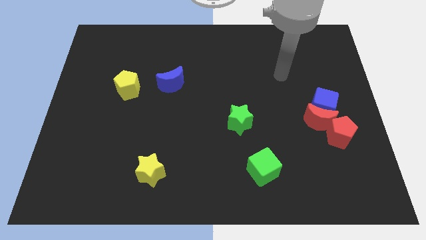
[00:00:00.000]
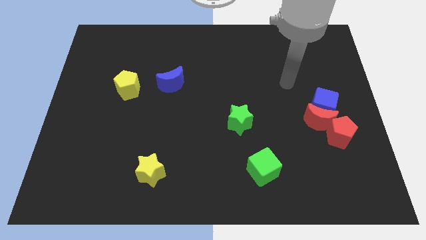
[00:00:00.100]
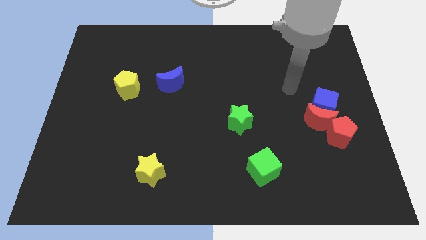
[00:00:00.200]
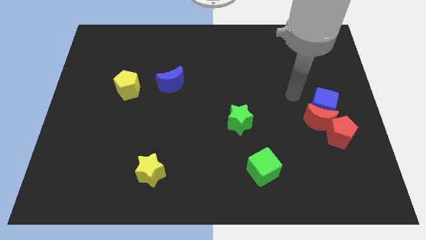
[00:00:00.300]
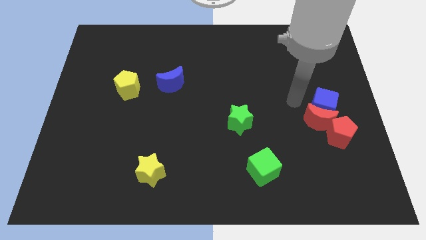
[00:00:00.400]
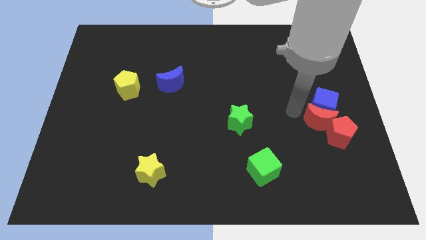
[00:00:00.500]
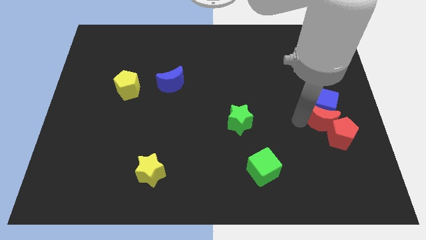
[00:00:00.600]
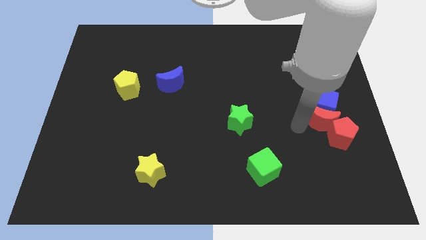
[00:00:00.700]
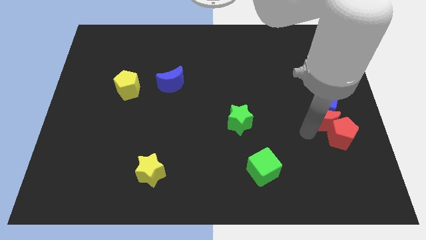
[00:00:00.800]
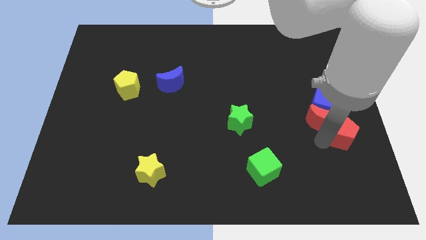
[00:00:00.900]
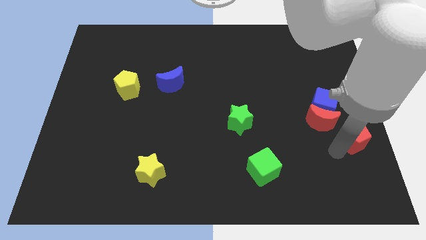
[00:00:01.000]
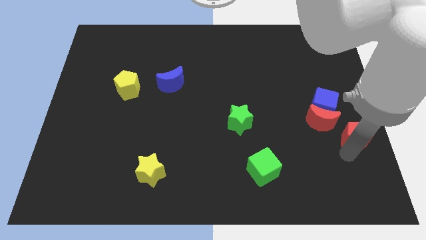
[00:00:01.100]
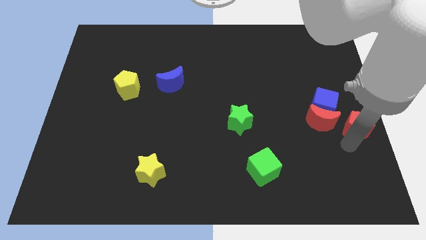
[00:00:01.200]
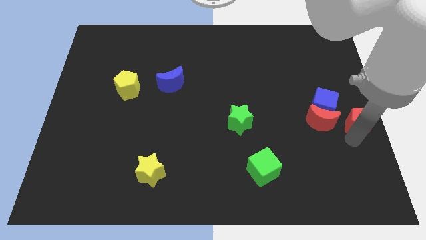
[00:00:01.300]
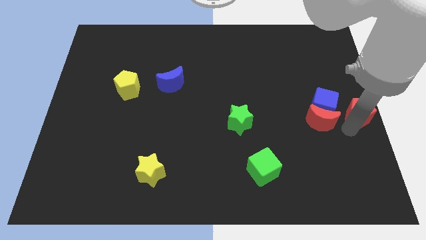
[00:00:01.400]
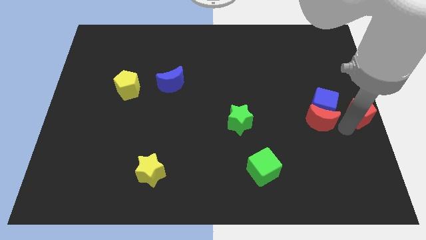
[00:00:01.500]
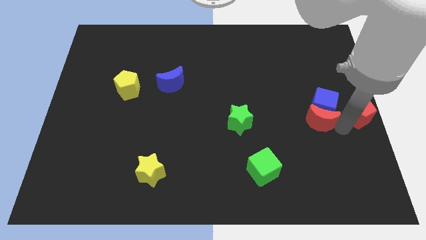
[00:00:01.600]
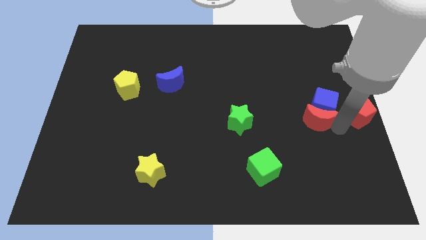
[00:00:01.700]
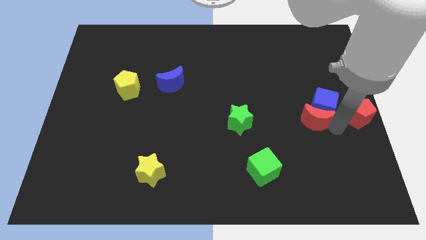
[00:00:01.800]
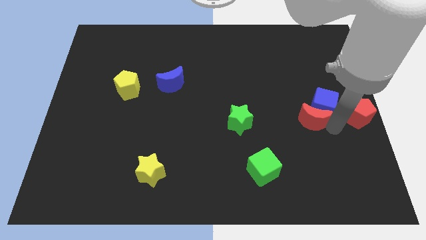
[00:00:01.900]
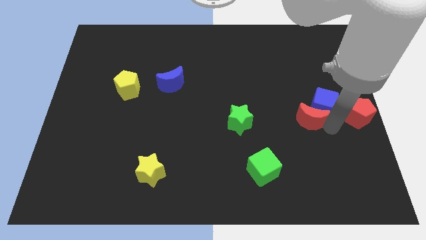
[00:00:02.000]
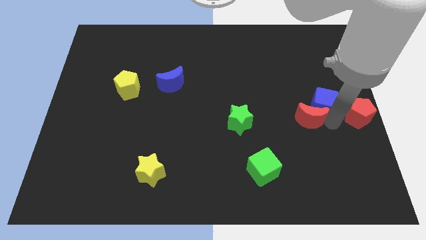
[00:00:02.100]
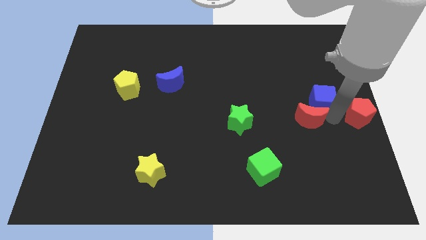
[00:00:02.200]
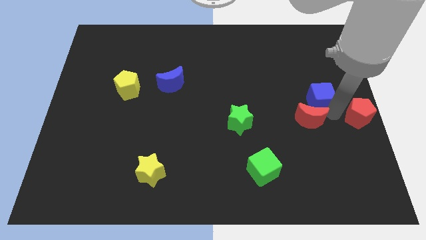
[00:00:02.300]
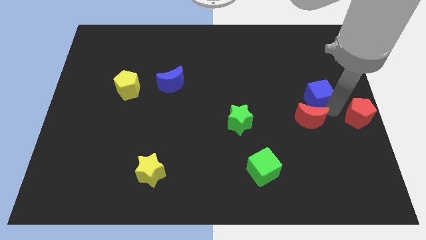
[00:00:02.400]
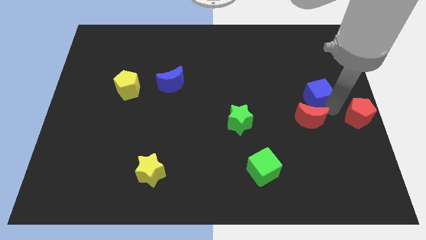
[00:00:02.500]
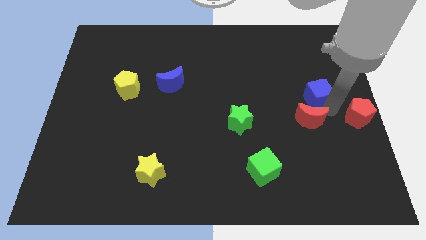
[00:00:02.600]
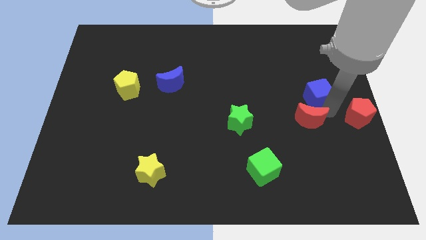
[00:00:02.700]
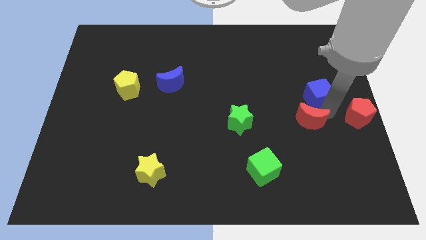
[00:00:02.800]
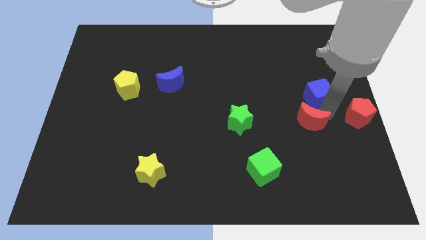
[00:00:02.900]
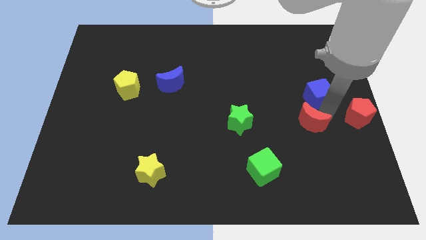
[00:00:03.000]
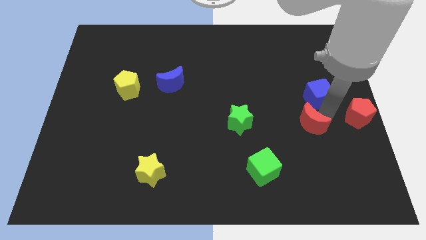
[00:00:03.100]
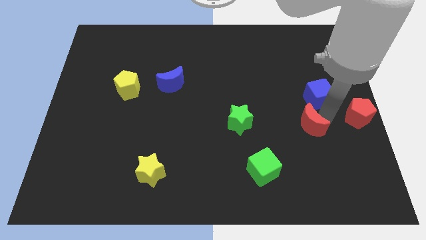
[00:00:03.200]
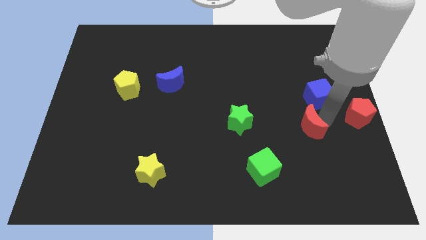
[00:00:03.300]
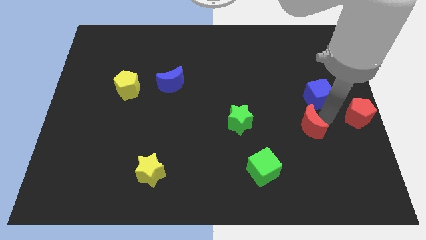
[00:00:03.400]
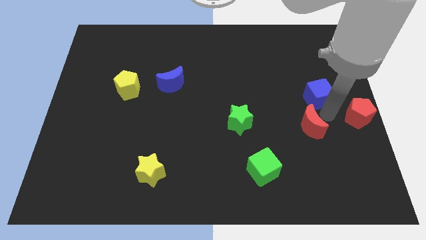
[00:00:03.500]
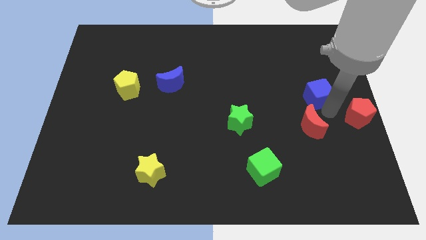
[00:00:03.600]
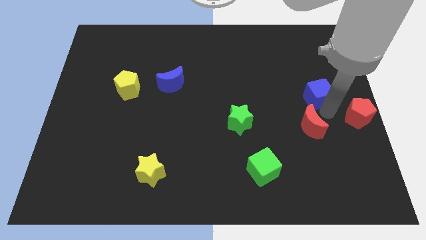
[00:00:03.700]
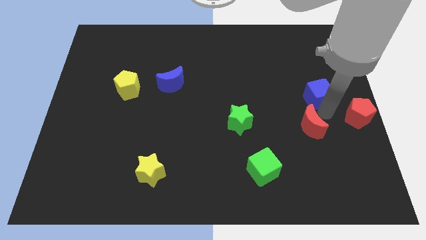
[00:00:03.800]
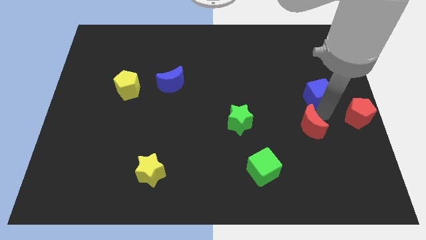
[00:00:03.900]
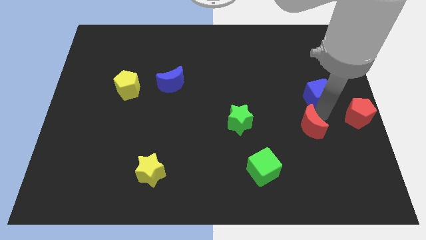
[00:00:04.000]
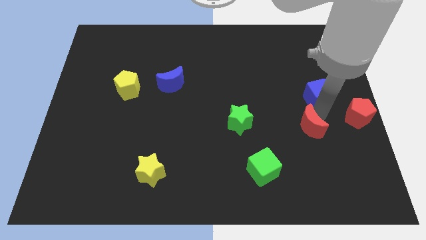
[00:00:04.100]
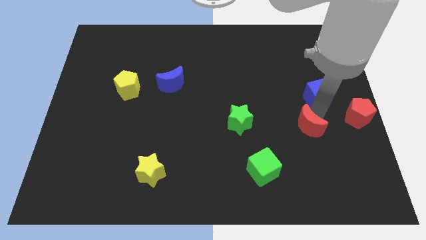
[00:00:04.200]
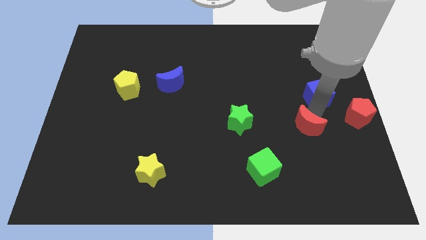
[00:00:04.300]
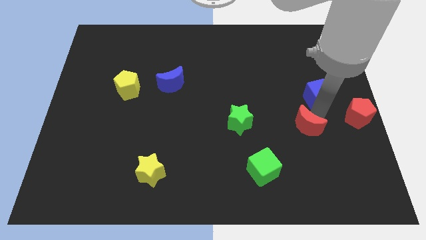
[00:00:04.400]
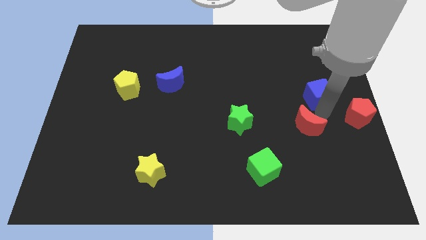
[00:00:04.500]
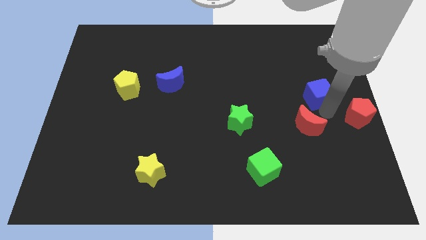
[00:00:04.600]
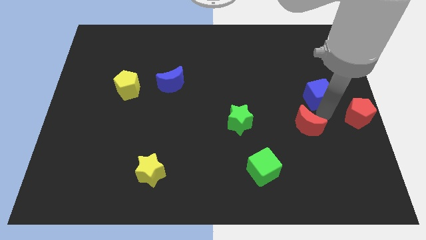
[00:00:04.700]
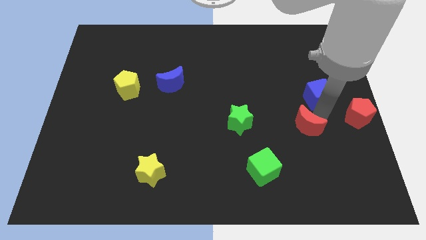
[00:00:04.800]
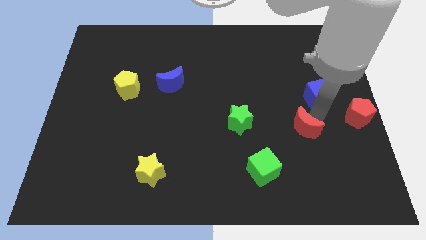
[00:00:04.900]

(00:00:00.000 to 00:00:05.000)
pull the red moon apart from the blue cube and red pentagon

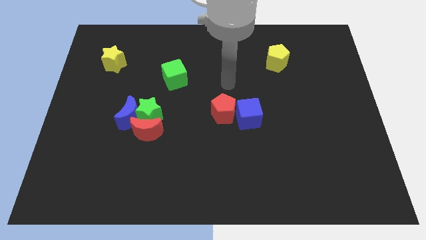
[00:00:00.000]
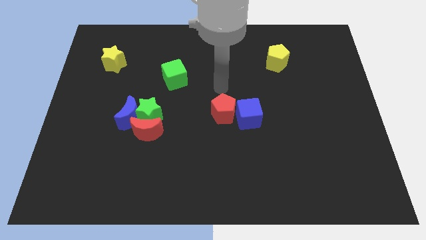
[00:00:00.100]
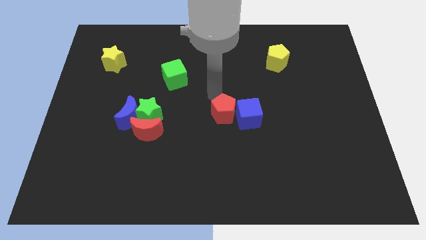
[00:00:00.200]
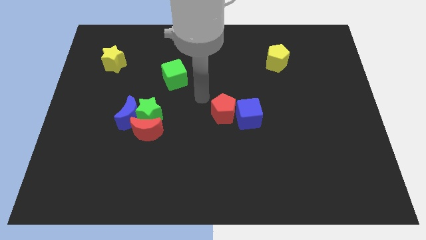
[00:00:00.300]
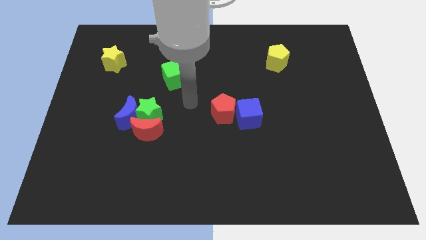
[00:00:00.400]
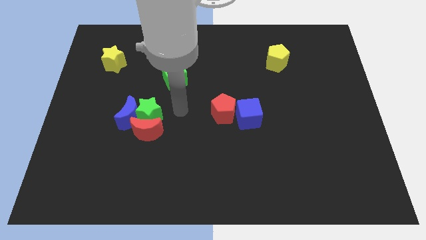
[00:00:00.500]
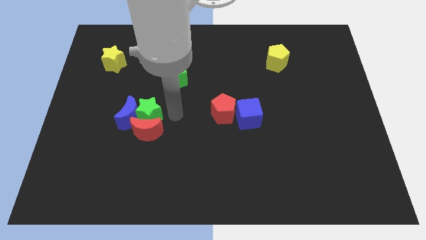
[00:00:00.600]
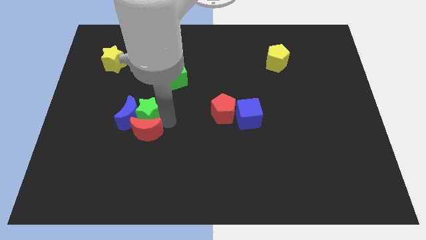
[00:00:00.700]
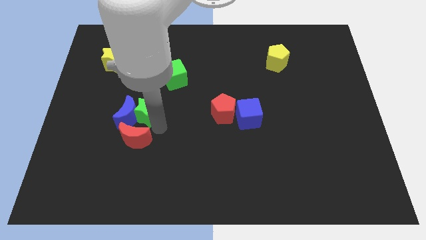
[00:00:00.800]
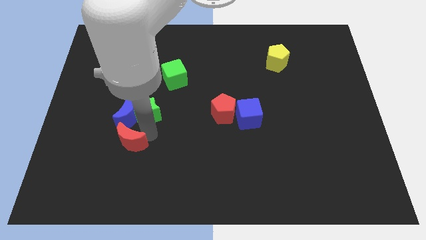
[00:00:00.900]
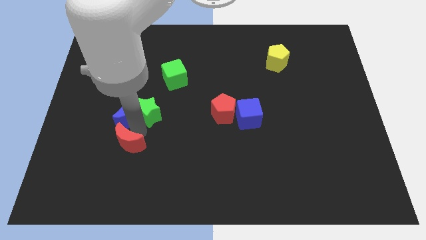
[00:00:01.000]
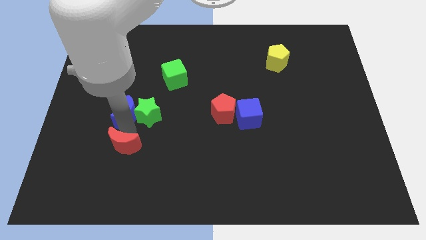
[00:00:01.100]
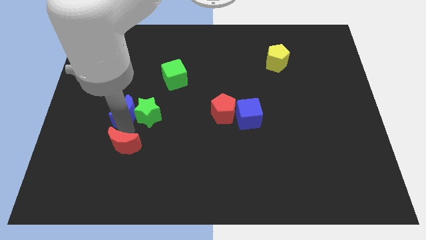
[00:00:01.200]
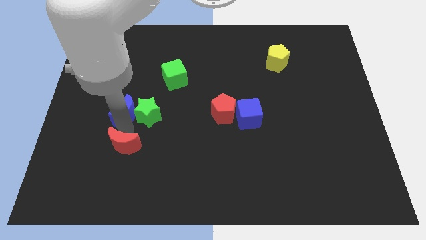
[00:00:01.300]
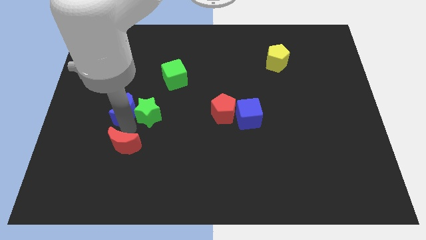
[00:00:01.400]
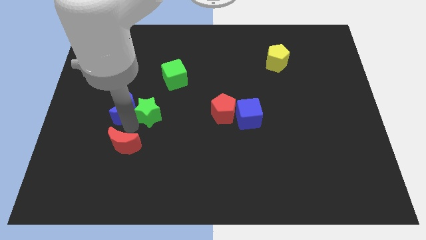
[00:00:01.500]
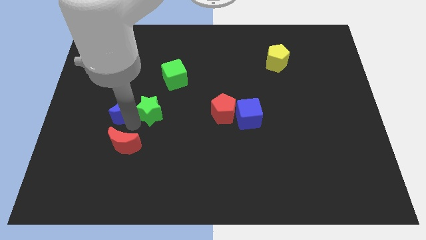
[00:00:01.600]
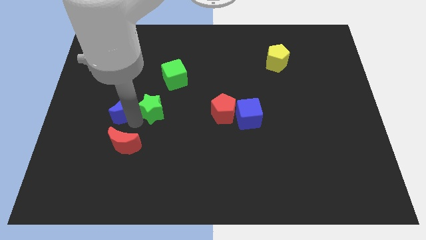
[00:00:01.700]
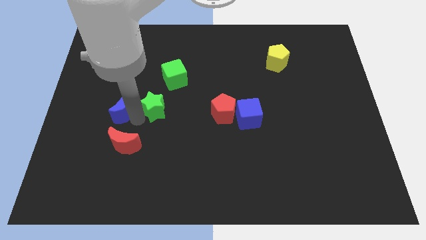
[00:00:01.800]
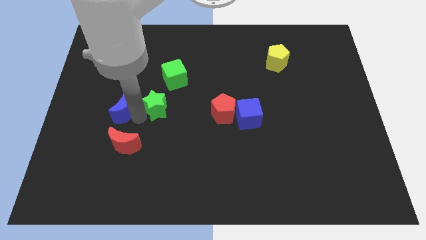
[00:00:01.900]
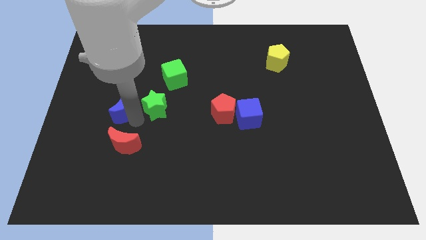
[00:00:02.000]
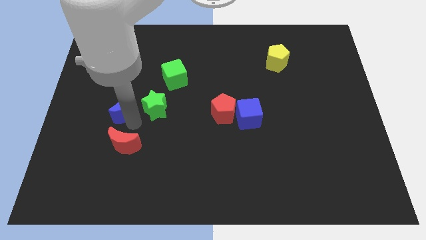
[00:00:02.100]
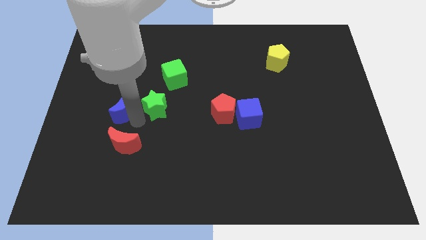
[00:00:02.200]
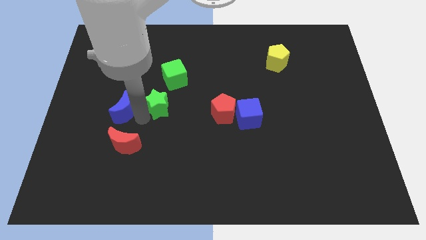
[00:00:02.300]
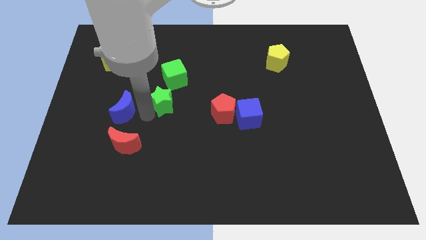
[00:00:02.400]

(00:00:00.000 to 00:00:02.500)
pull the green star apart from the blue moon and red moon

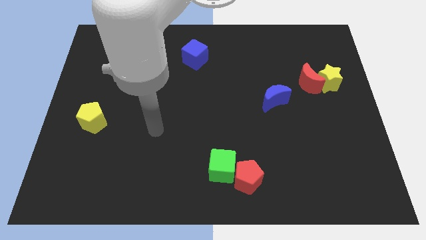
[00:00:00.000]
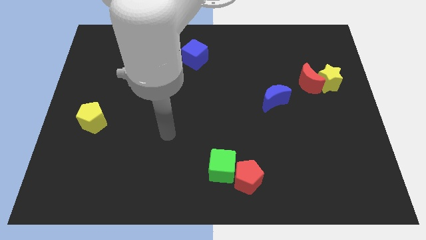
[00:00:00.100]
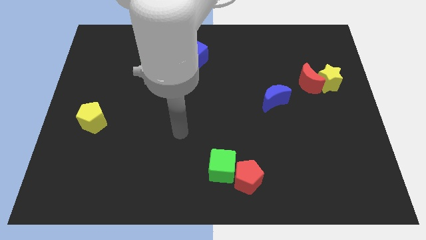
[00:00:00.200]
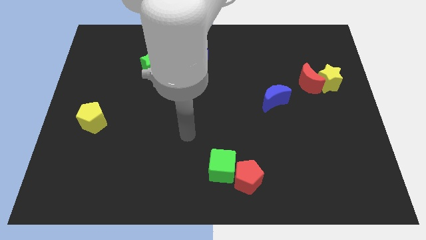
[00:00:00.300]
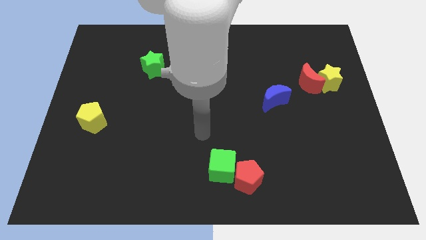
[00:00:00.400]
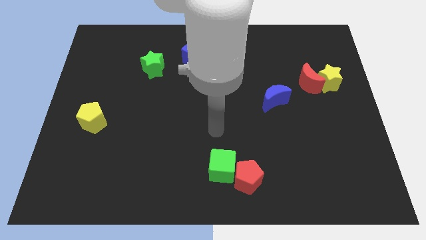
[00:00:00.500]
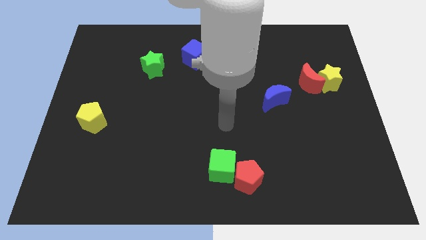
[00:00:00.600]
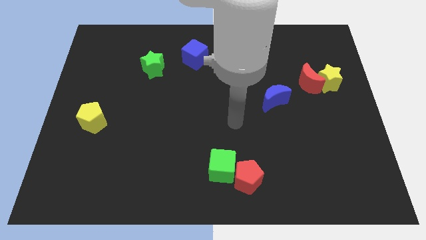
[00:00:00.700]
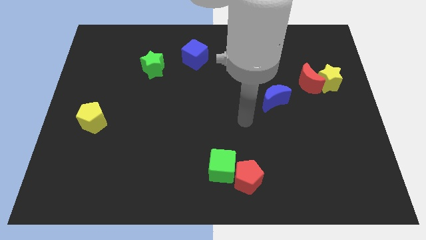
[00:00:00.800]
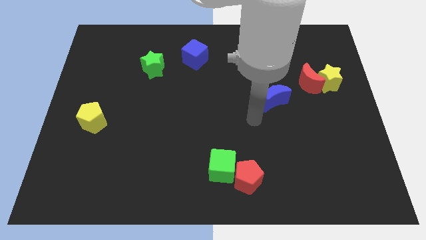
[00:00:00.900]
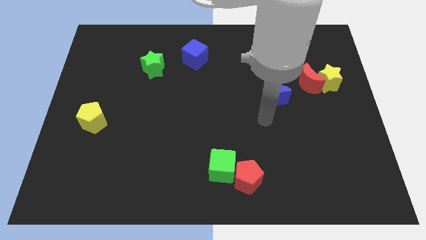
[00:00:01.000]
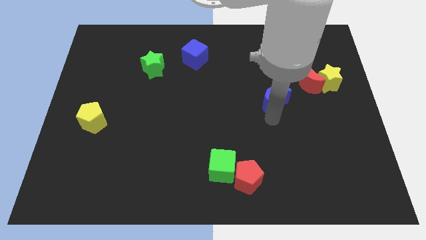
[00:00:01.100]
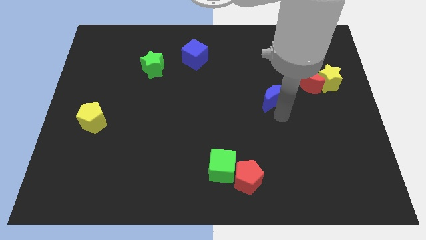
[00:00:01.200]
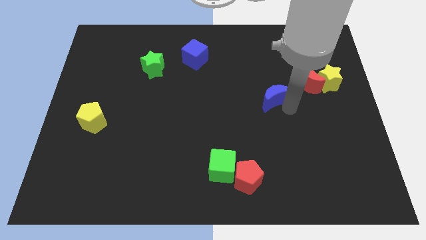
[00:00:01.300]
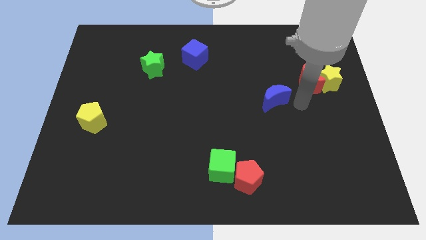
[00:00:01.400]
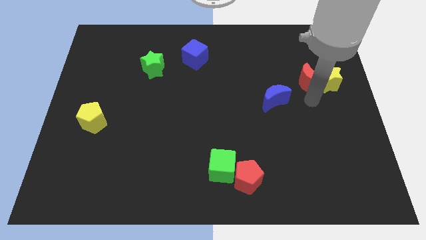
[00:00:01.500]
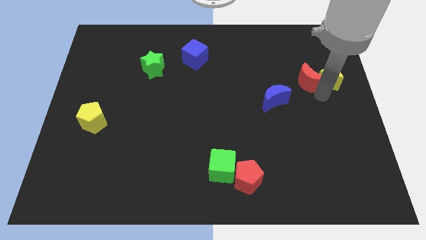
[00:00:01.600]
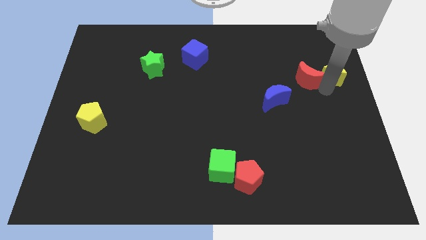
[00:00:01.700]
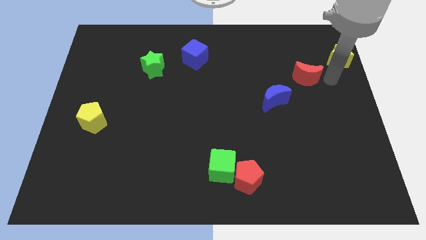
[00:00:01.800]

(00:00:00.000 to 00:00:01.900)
separate the red moon from the yellow star
